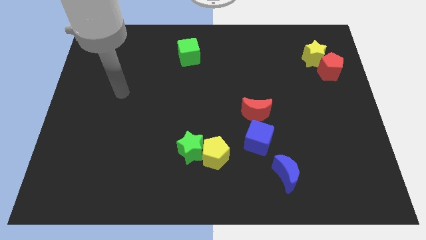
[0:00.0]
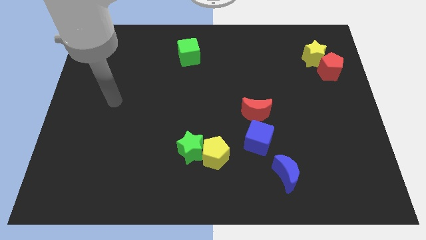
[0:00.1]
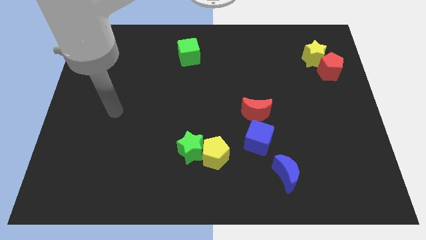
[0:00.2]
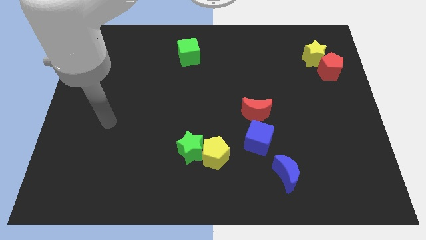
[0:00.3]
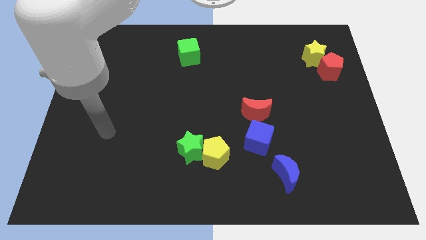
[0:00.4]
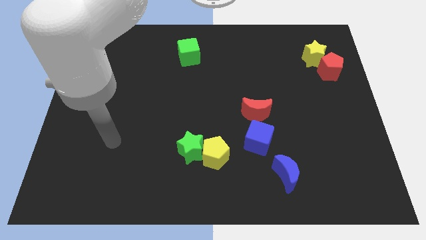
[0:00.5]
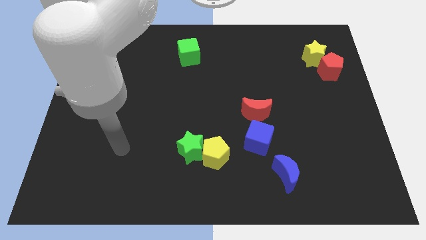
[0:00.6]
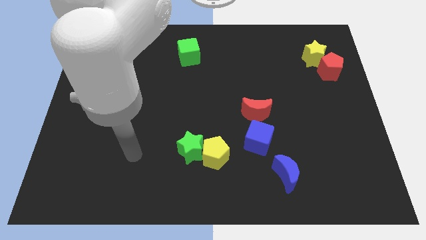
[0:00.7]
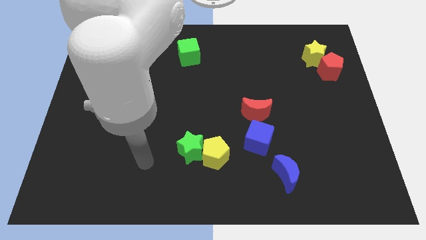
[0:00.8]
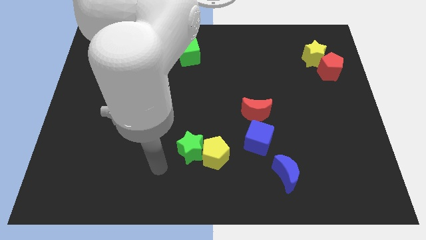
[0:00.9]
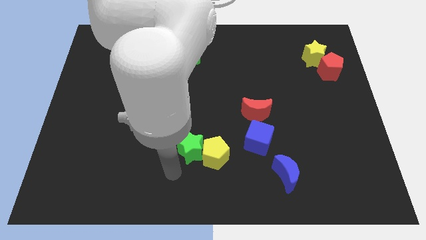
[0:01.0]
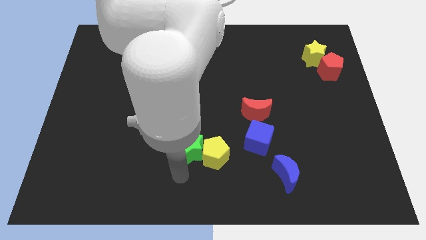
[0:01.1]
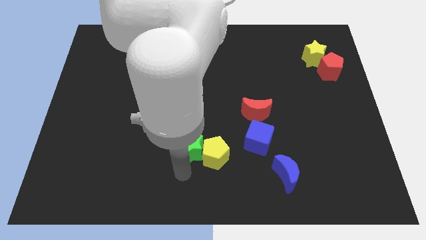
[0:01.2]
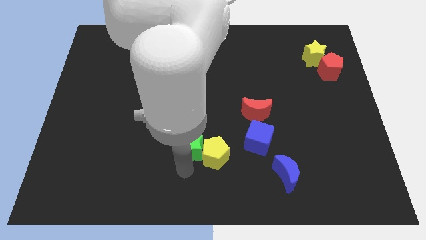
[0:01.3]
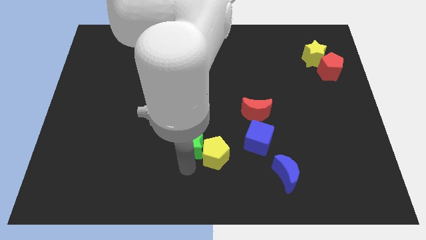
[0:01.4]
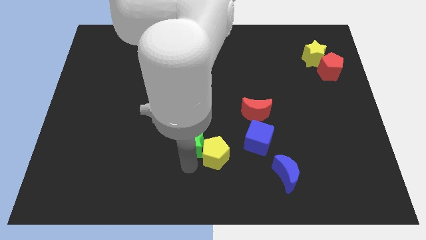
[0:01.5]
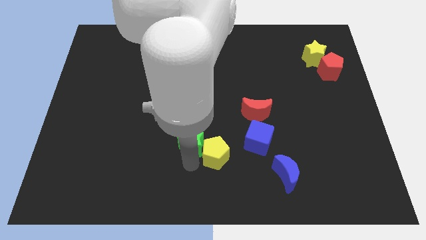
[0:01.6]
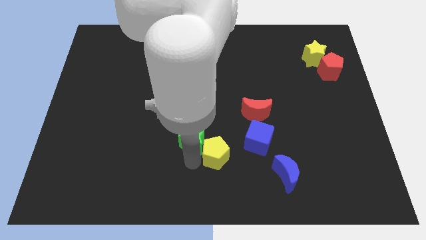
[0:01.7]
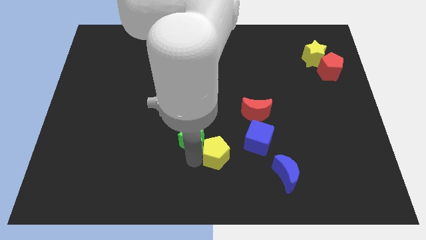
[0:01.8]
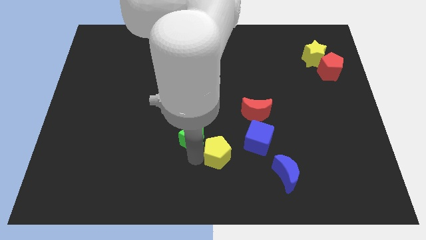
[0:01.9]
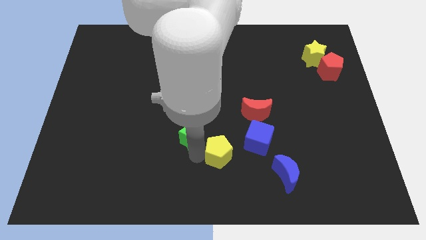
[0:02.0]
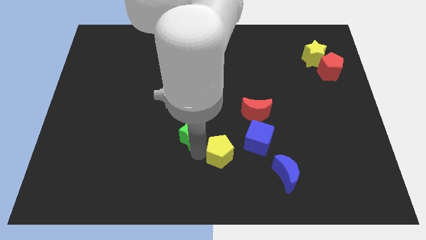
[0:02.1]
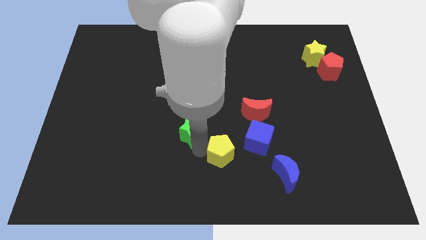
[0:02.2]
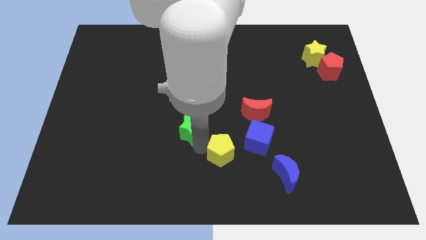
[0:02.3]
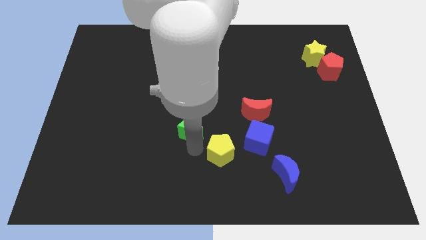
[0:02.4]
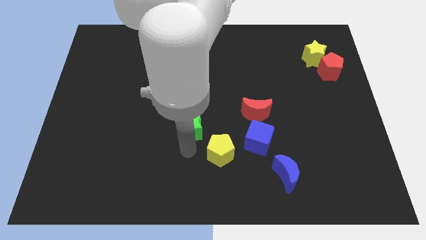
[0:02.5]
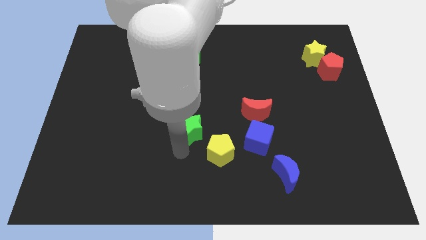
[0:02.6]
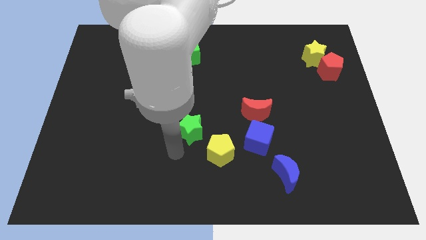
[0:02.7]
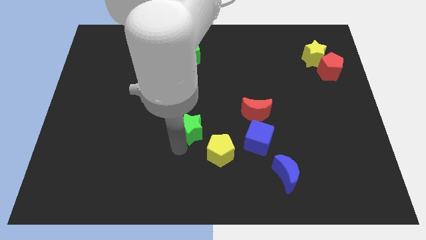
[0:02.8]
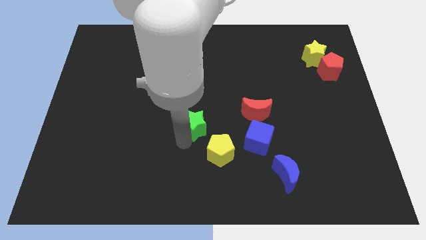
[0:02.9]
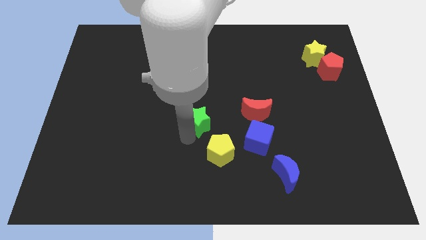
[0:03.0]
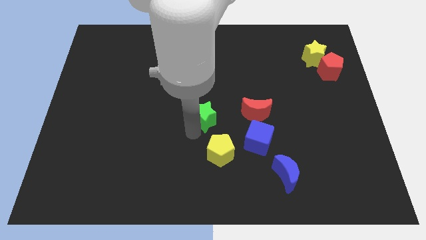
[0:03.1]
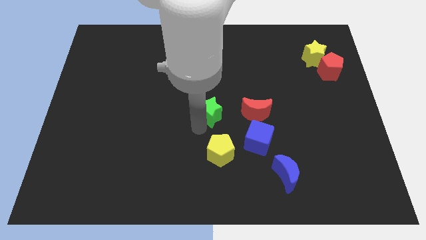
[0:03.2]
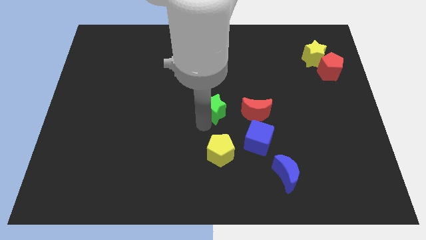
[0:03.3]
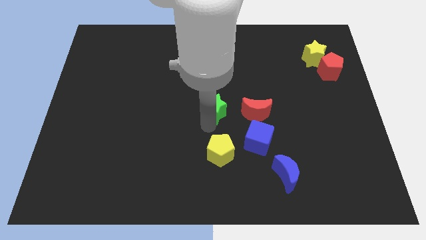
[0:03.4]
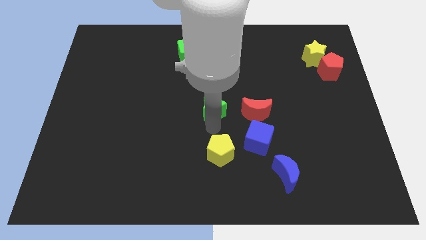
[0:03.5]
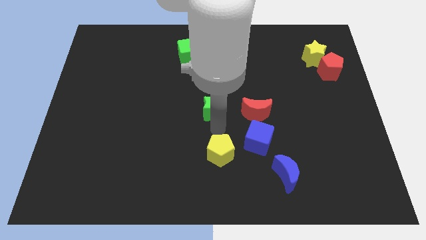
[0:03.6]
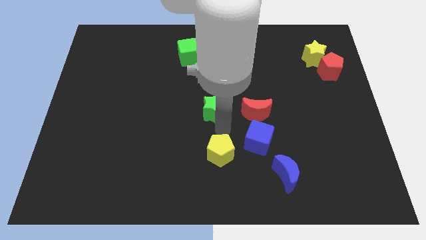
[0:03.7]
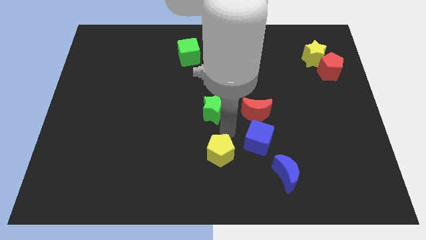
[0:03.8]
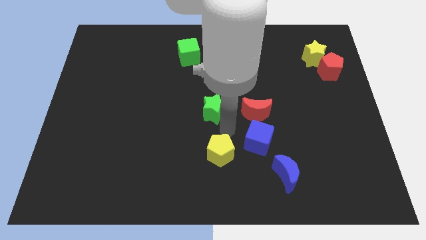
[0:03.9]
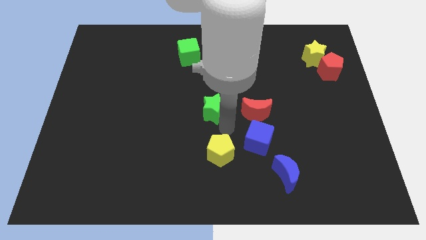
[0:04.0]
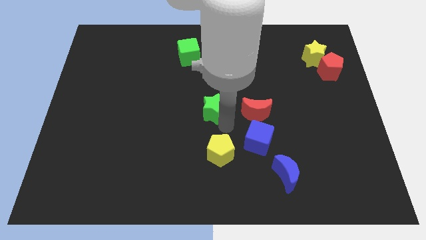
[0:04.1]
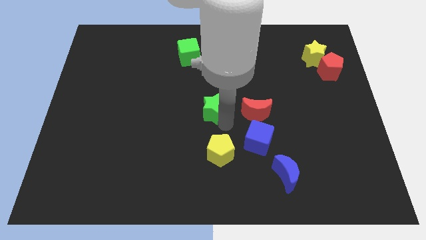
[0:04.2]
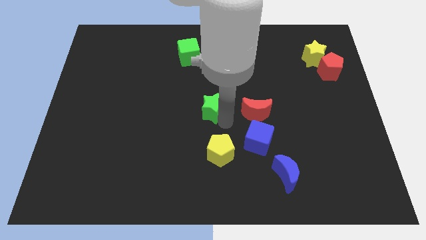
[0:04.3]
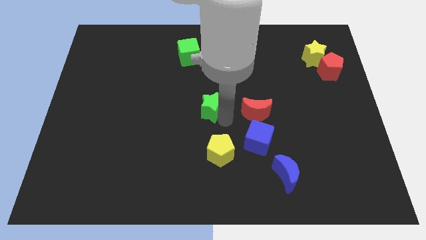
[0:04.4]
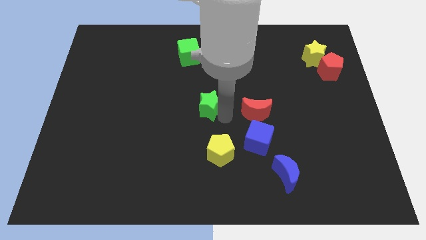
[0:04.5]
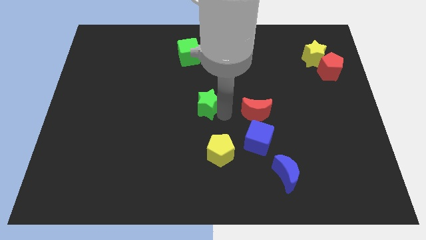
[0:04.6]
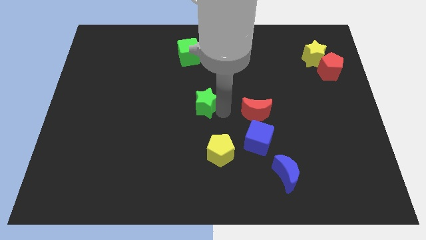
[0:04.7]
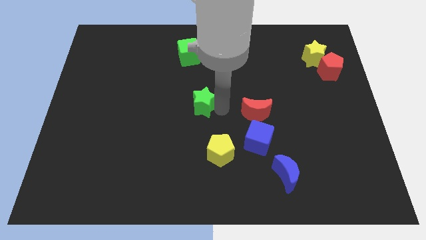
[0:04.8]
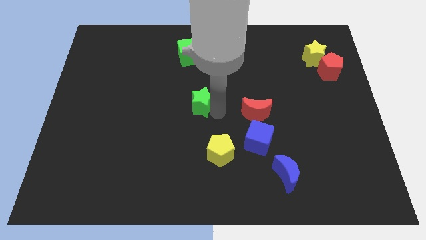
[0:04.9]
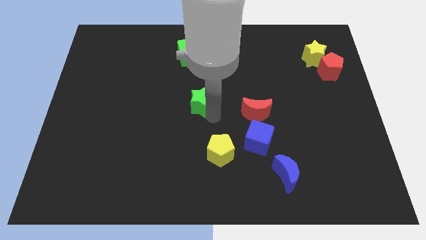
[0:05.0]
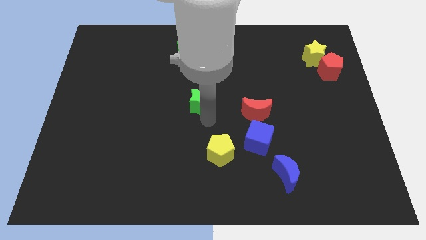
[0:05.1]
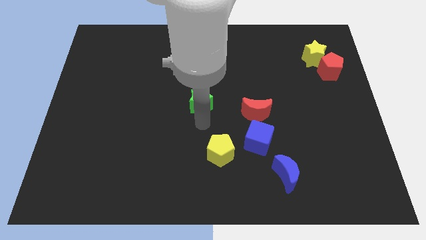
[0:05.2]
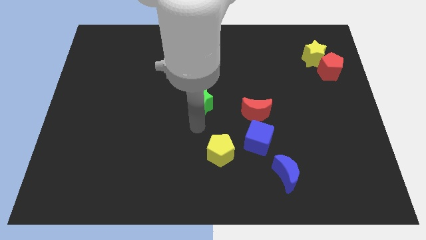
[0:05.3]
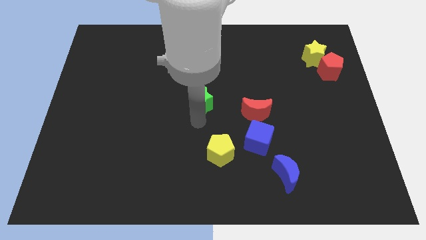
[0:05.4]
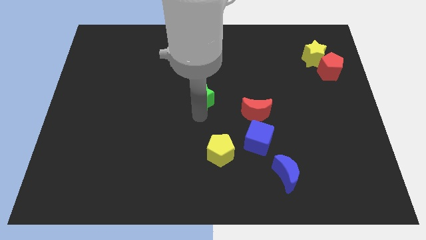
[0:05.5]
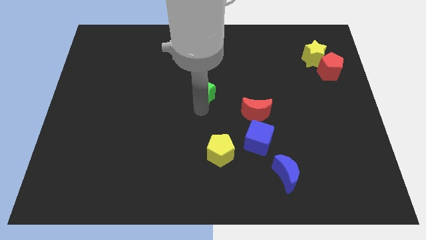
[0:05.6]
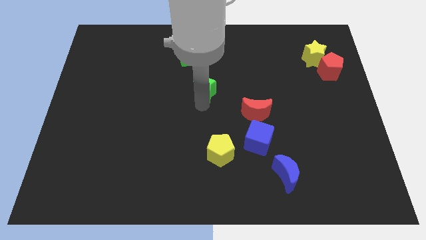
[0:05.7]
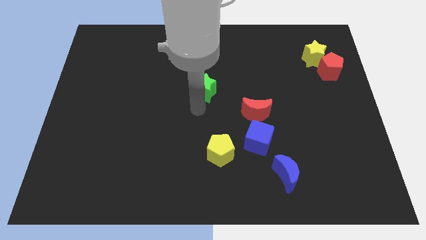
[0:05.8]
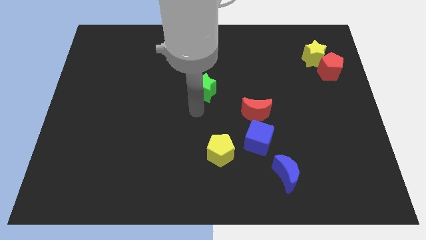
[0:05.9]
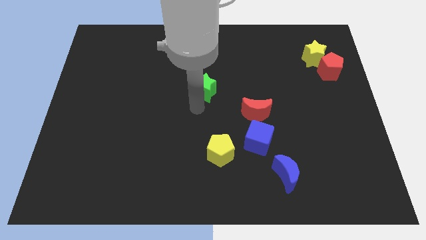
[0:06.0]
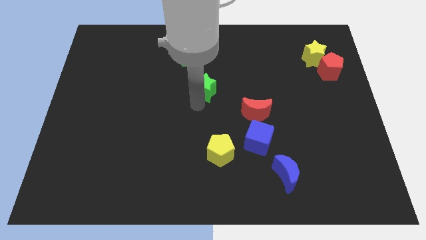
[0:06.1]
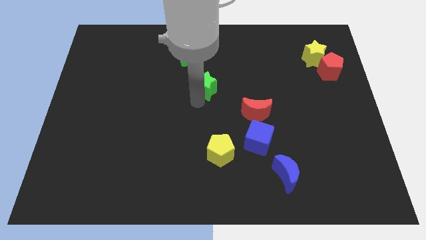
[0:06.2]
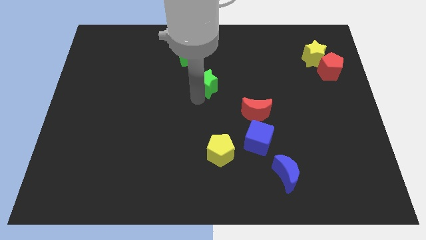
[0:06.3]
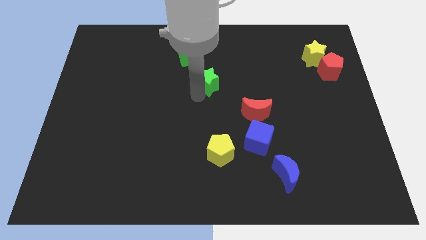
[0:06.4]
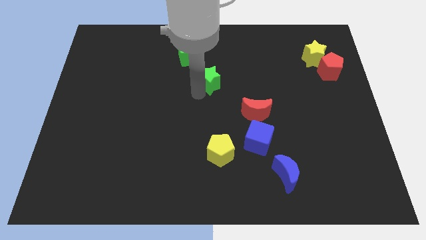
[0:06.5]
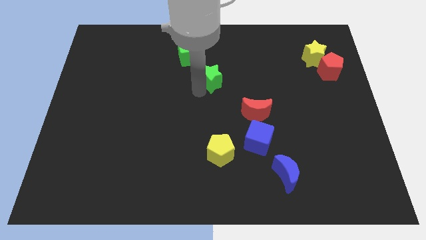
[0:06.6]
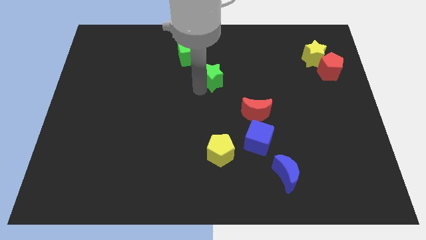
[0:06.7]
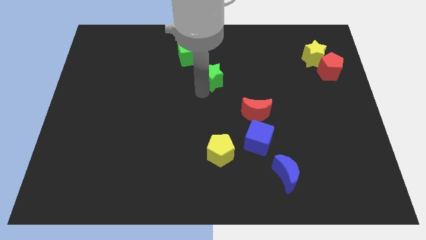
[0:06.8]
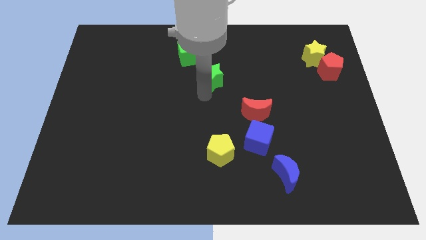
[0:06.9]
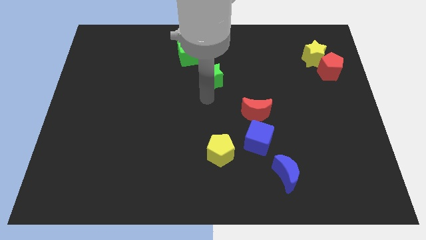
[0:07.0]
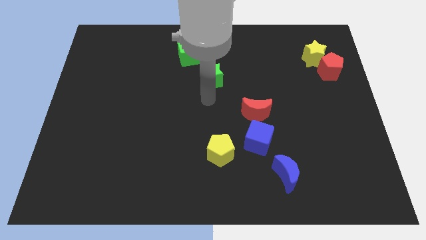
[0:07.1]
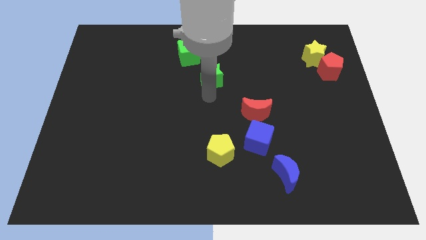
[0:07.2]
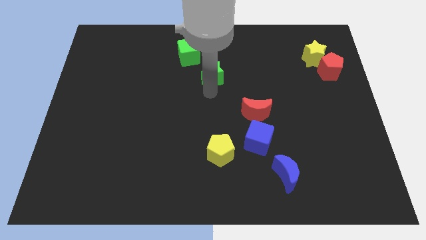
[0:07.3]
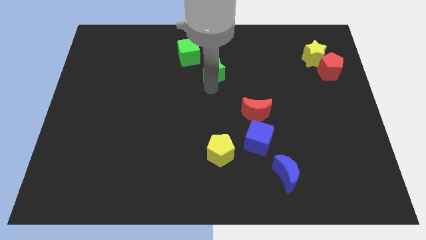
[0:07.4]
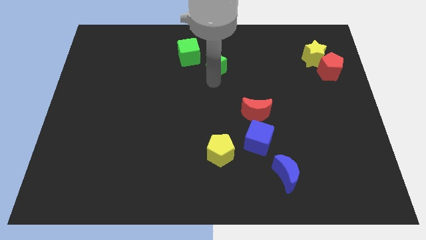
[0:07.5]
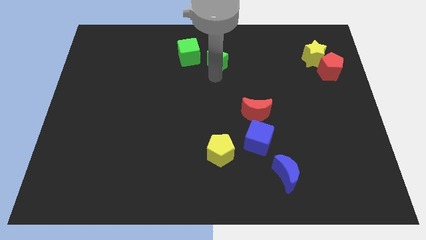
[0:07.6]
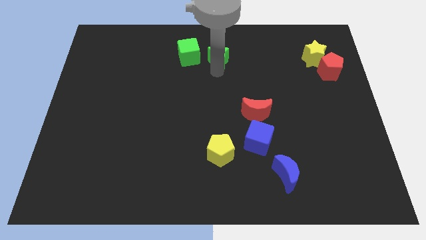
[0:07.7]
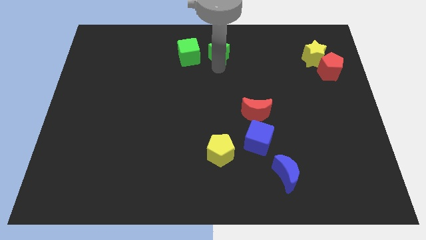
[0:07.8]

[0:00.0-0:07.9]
move the green star to the top
